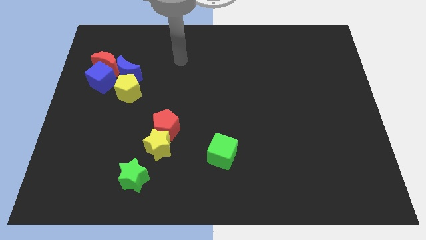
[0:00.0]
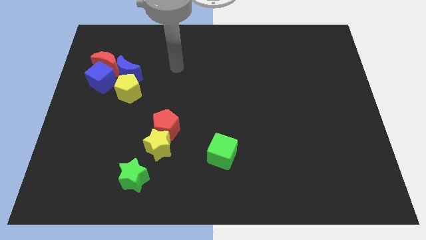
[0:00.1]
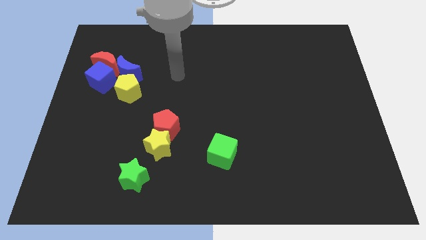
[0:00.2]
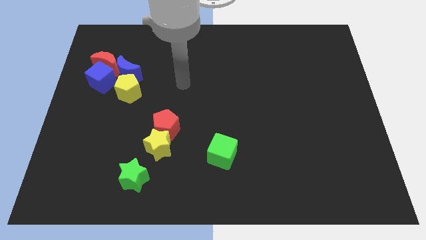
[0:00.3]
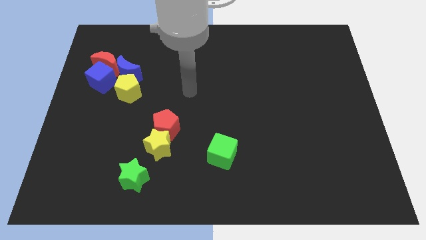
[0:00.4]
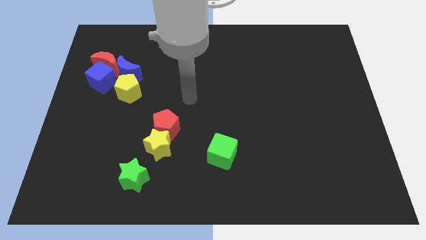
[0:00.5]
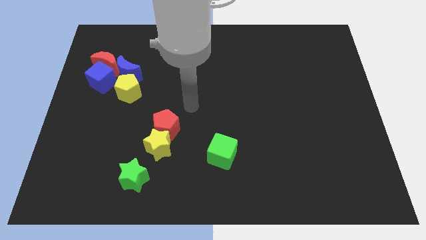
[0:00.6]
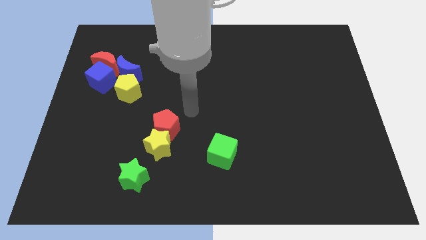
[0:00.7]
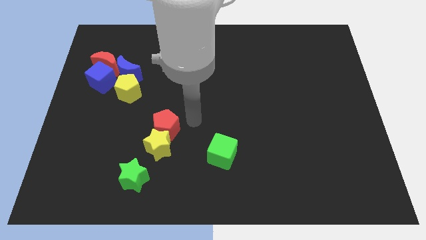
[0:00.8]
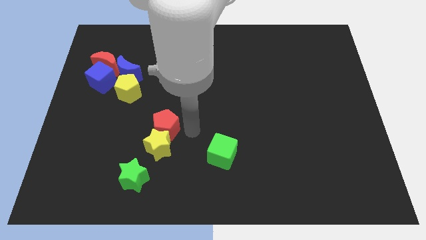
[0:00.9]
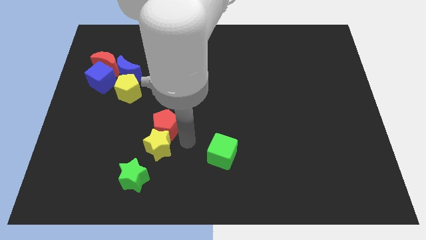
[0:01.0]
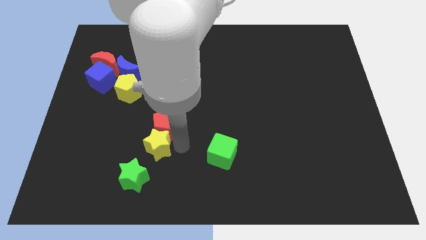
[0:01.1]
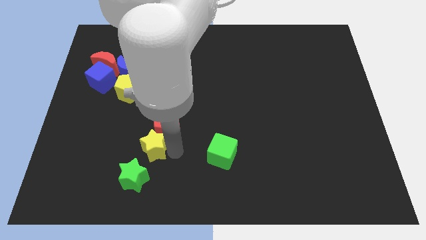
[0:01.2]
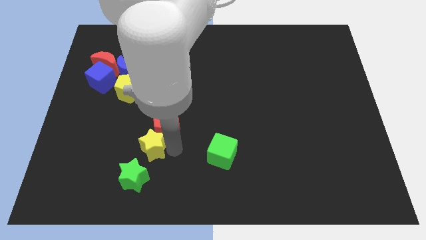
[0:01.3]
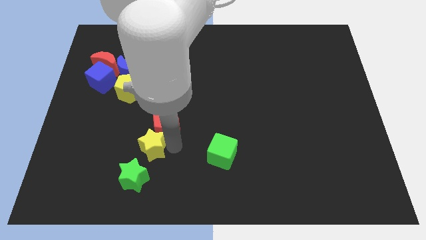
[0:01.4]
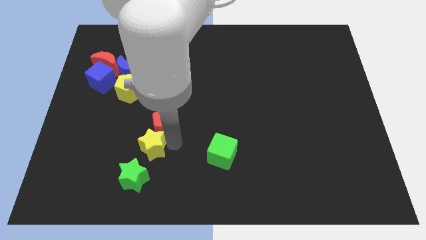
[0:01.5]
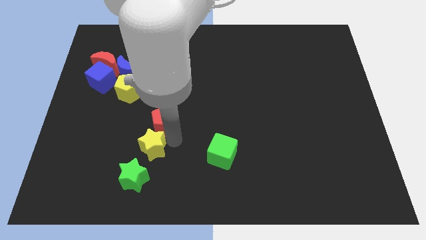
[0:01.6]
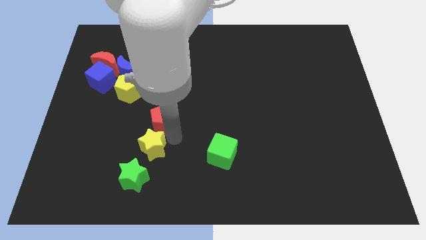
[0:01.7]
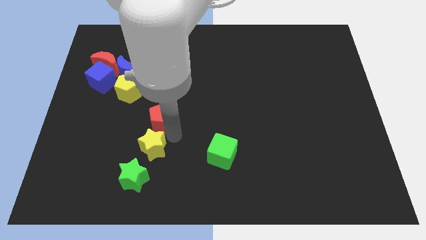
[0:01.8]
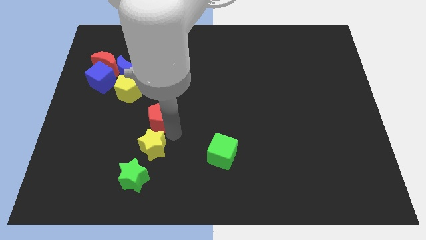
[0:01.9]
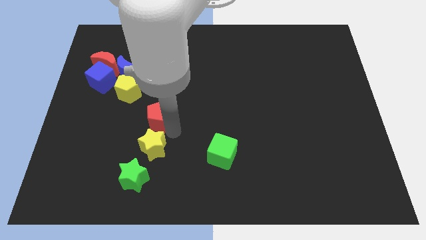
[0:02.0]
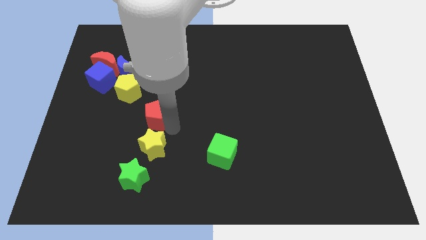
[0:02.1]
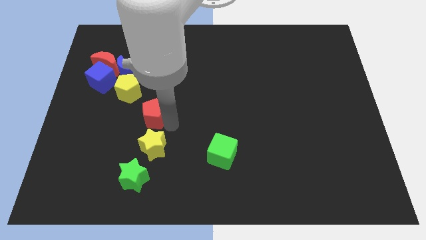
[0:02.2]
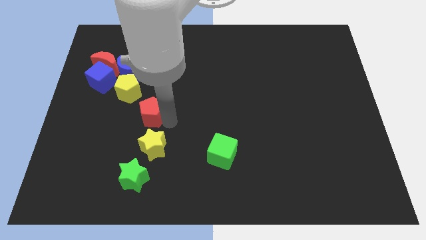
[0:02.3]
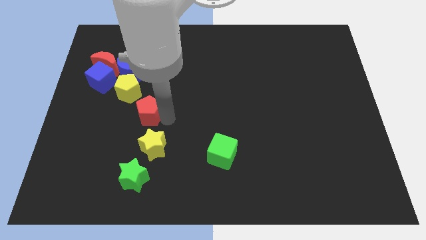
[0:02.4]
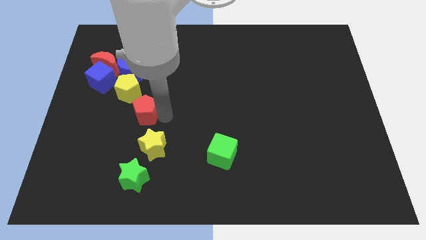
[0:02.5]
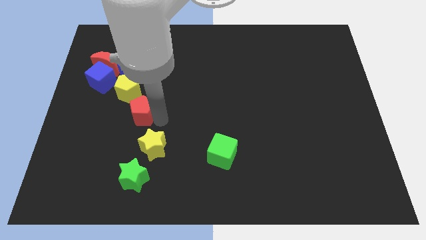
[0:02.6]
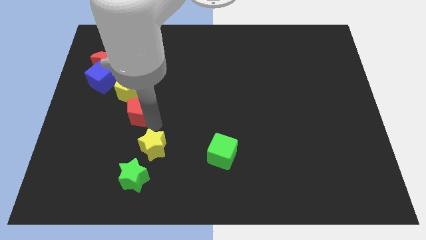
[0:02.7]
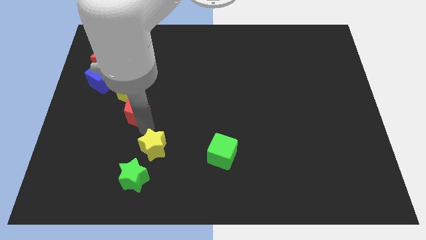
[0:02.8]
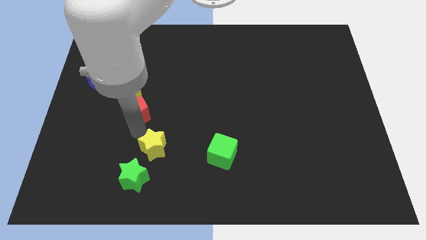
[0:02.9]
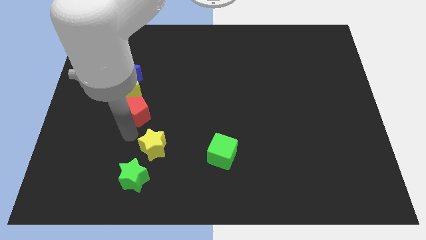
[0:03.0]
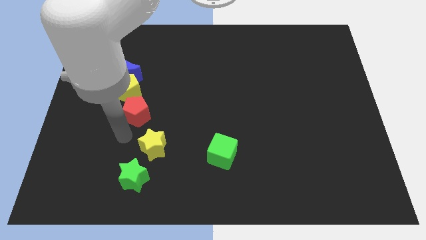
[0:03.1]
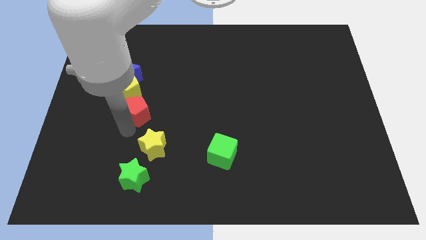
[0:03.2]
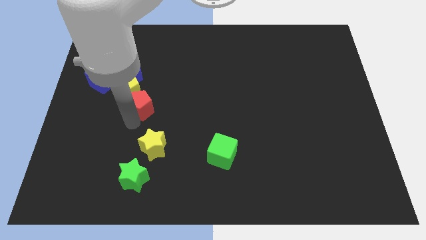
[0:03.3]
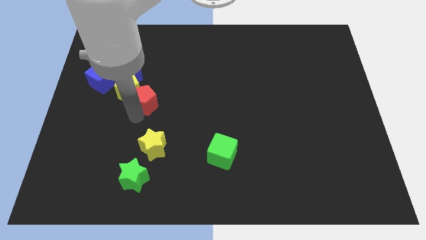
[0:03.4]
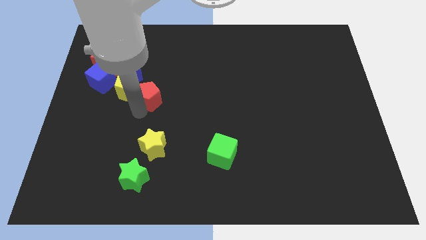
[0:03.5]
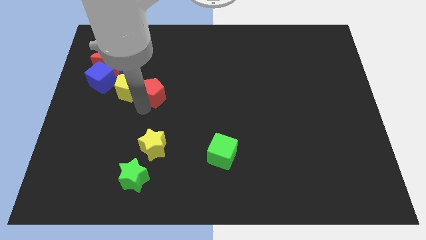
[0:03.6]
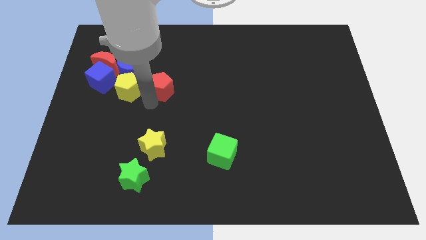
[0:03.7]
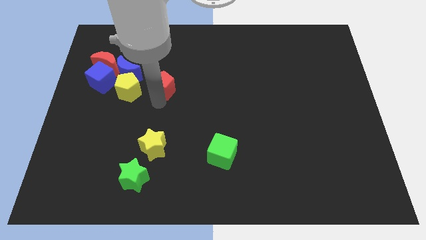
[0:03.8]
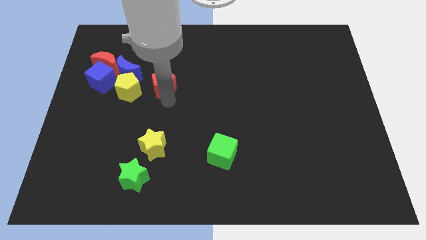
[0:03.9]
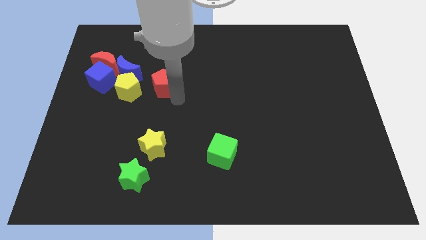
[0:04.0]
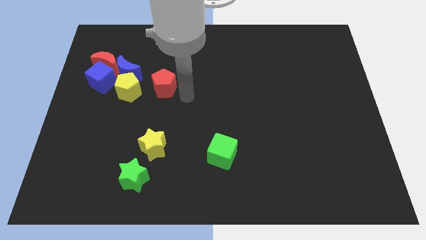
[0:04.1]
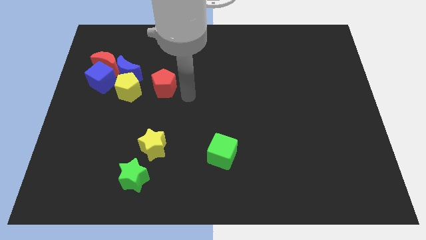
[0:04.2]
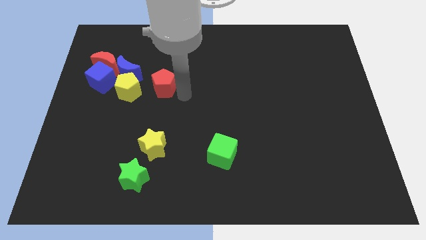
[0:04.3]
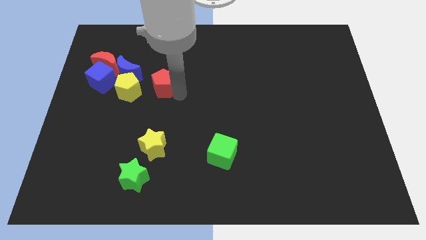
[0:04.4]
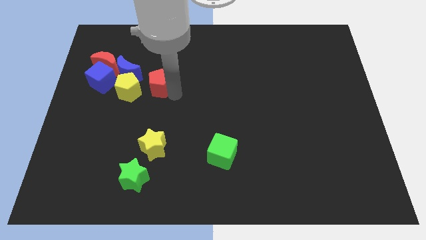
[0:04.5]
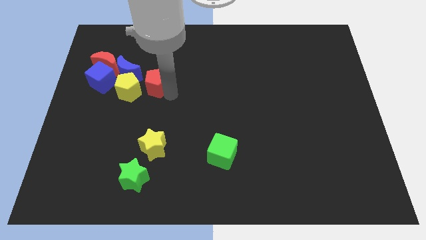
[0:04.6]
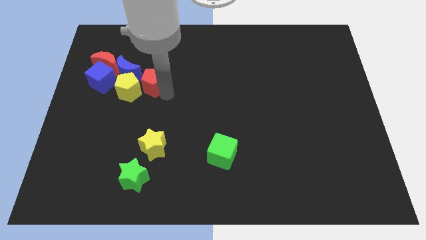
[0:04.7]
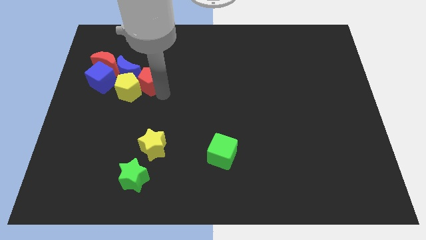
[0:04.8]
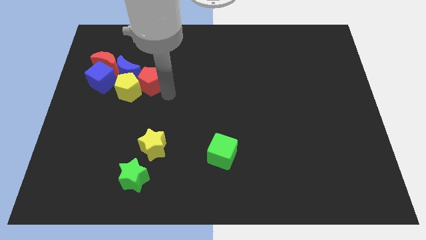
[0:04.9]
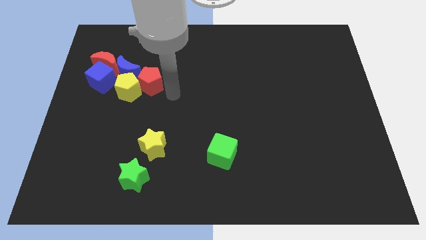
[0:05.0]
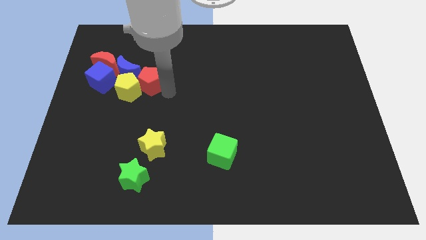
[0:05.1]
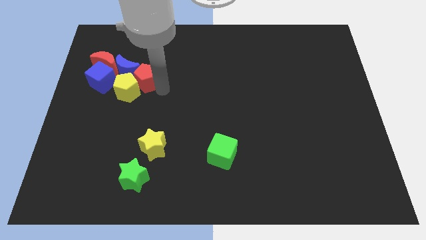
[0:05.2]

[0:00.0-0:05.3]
slide the red pentagon to the blue moon

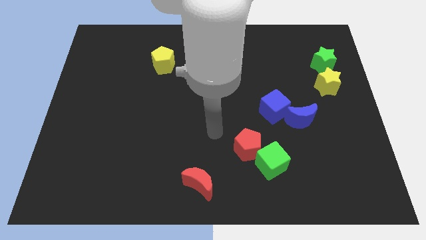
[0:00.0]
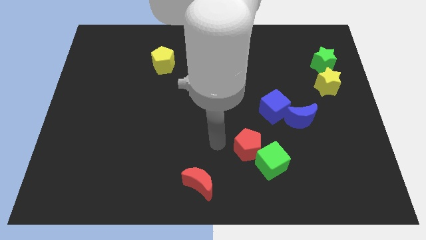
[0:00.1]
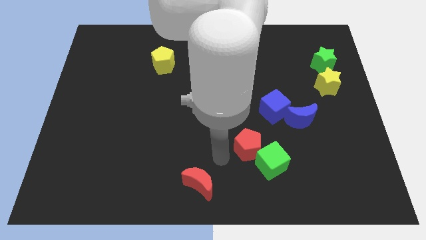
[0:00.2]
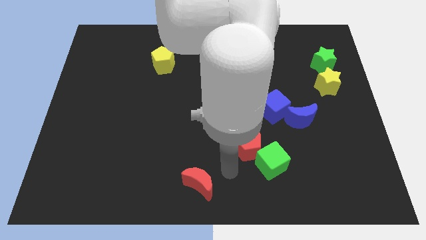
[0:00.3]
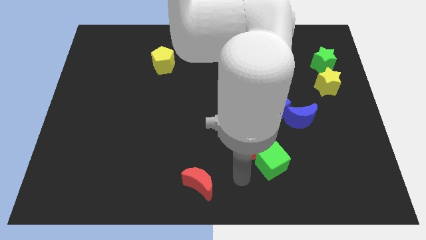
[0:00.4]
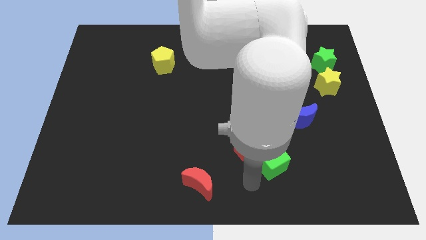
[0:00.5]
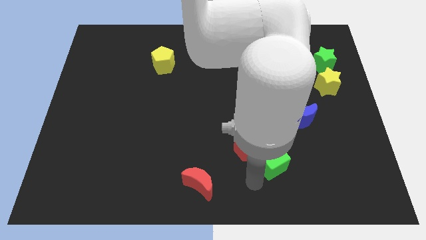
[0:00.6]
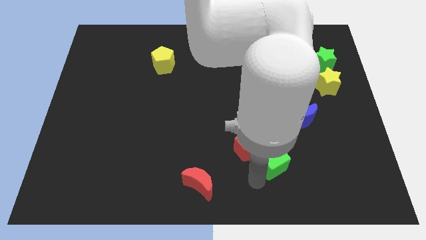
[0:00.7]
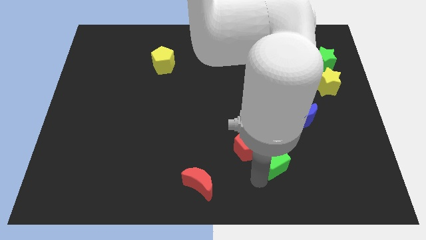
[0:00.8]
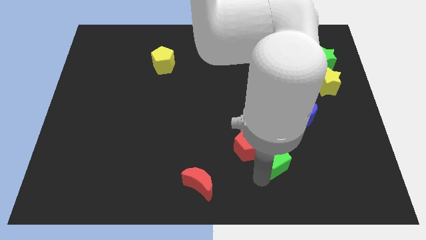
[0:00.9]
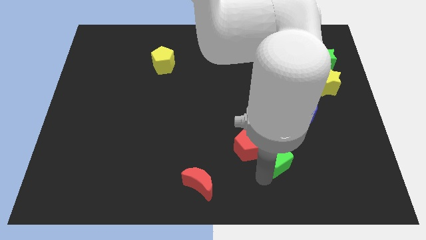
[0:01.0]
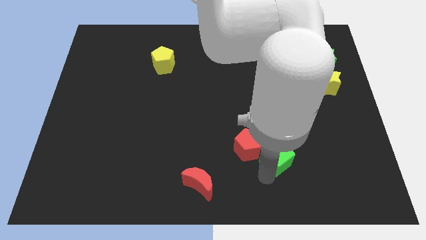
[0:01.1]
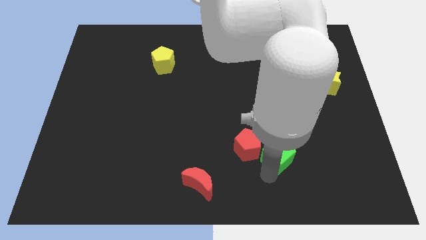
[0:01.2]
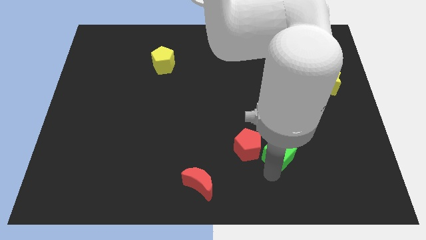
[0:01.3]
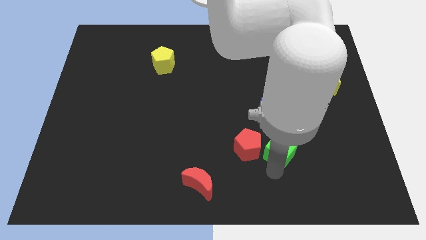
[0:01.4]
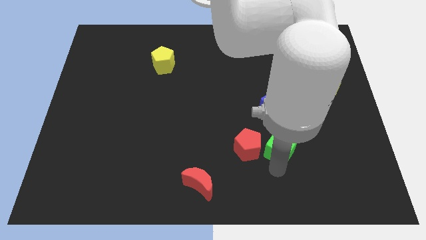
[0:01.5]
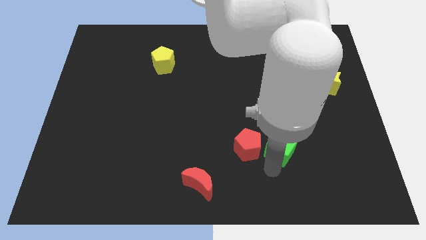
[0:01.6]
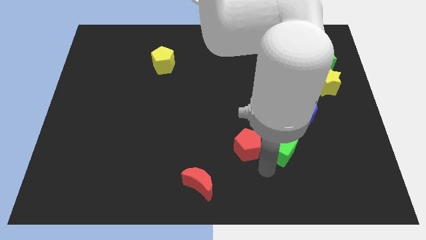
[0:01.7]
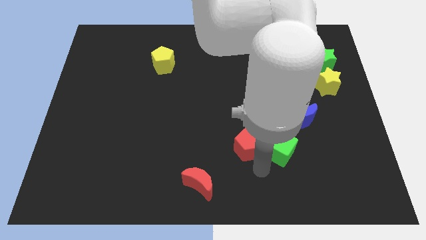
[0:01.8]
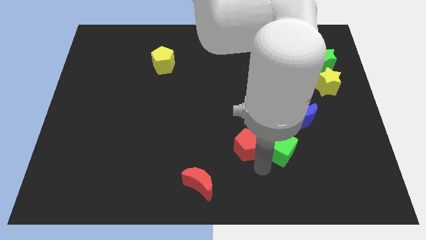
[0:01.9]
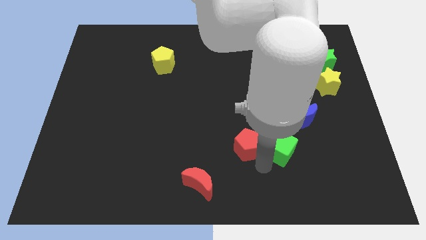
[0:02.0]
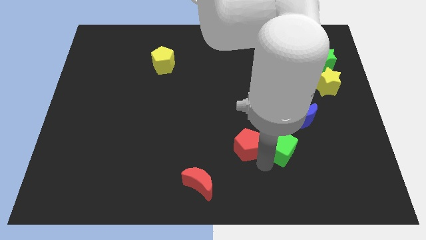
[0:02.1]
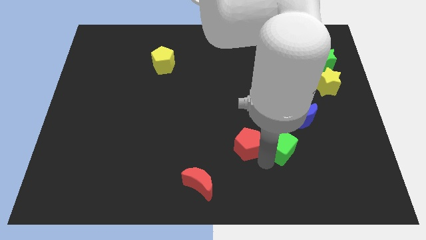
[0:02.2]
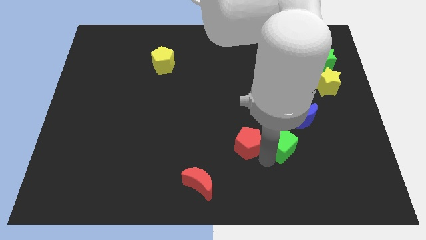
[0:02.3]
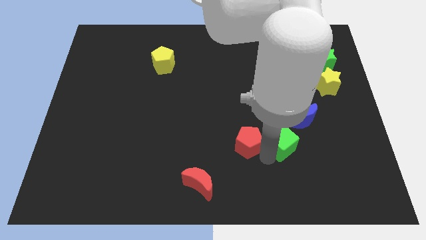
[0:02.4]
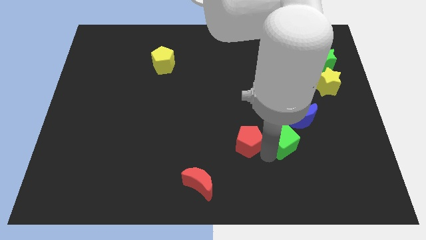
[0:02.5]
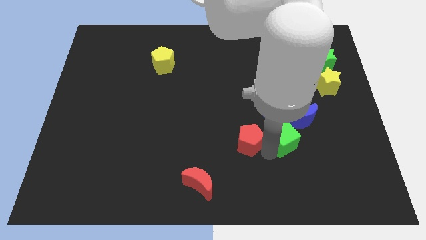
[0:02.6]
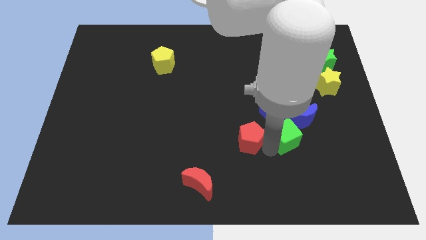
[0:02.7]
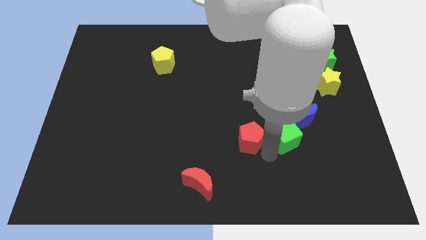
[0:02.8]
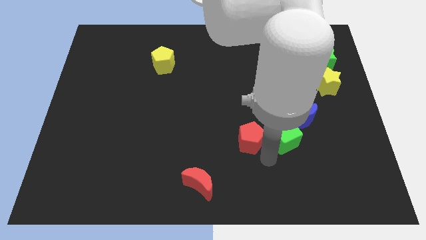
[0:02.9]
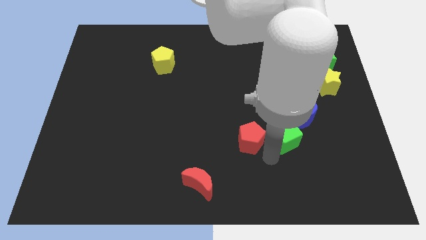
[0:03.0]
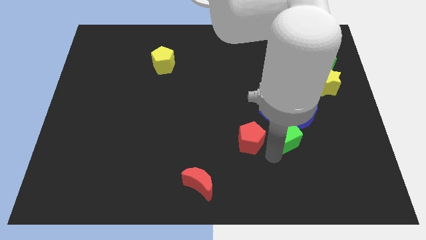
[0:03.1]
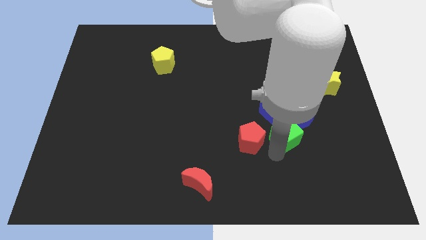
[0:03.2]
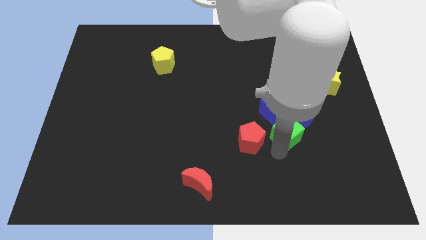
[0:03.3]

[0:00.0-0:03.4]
slide the green cube next to the blue moon
